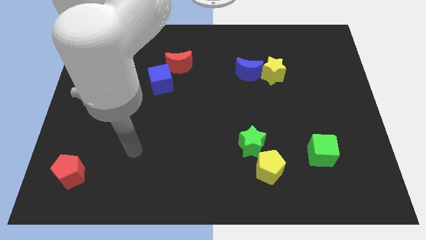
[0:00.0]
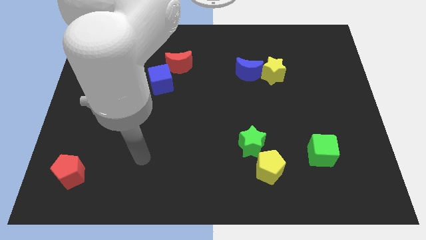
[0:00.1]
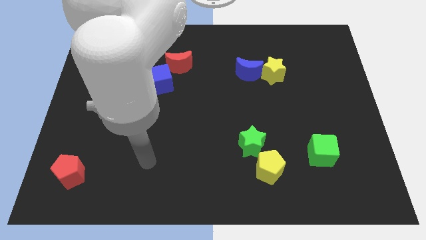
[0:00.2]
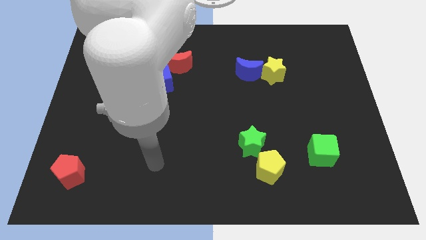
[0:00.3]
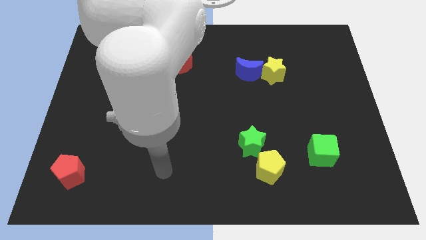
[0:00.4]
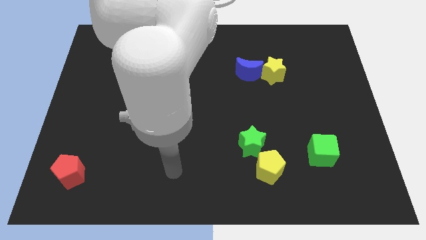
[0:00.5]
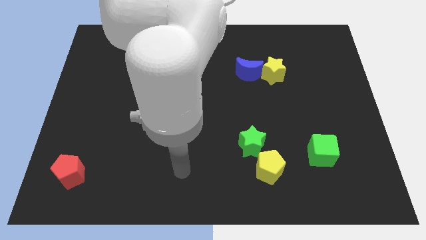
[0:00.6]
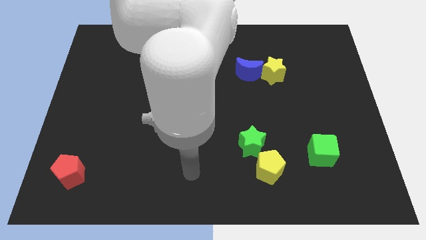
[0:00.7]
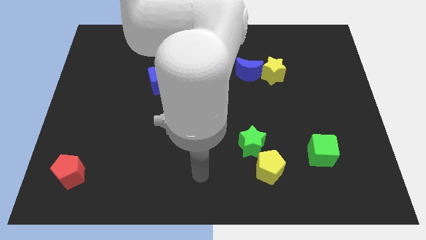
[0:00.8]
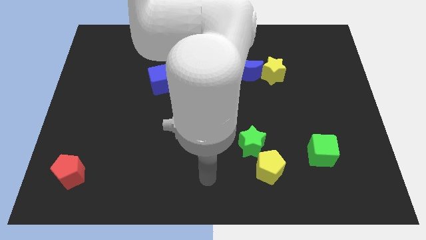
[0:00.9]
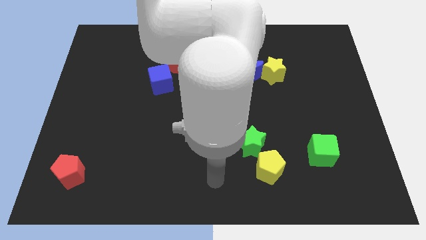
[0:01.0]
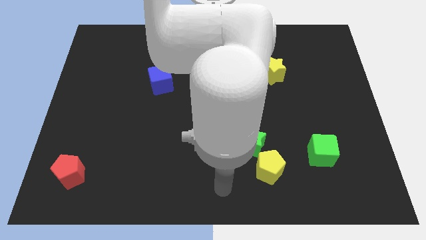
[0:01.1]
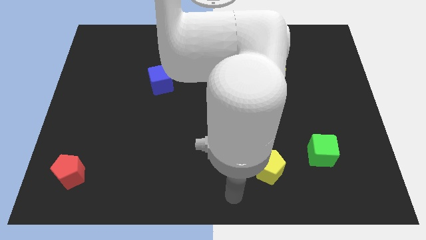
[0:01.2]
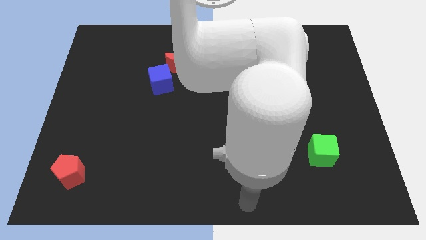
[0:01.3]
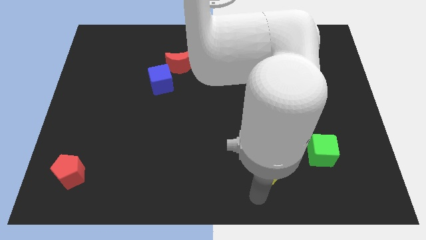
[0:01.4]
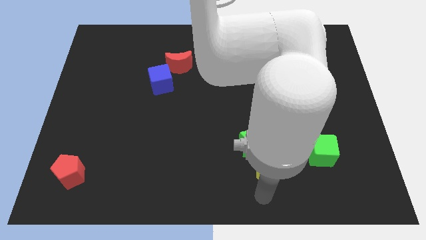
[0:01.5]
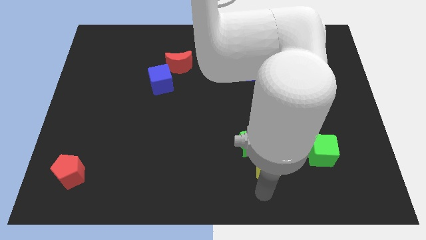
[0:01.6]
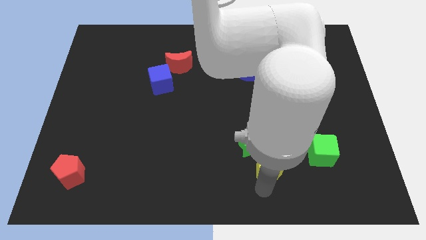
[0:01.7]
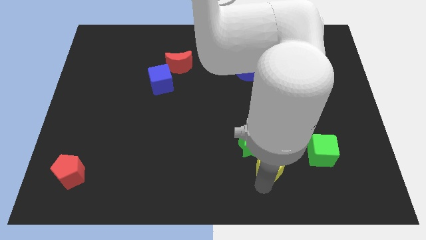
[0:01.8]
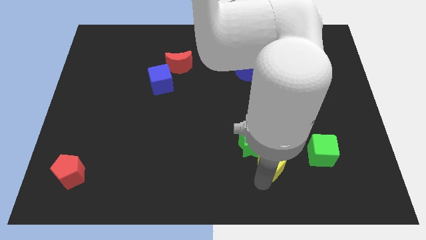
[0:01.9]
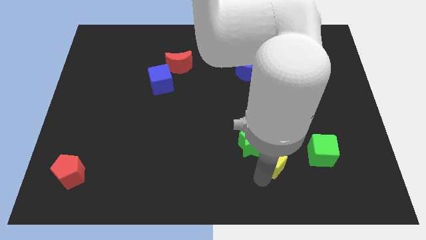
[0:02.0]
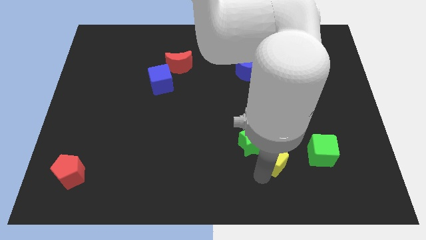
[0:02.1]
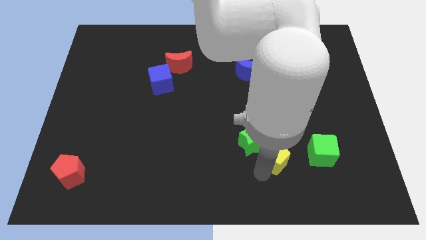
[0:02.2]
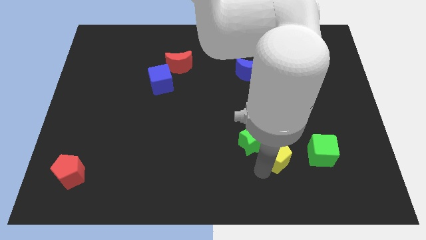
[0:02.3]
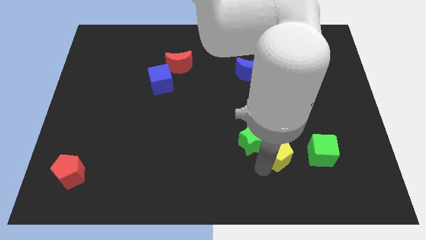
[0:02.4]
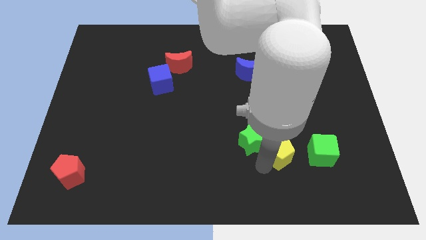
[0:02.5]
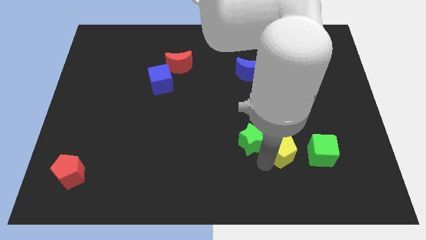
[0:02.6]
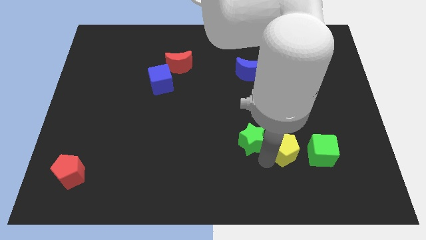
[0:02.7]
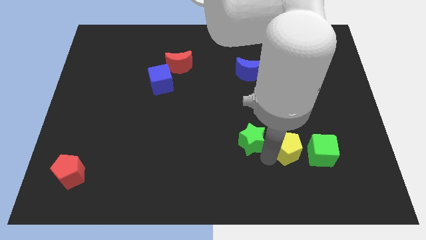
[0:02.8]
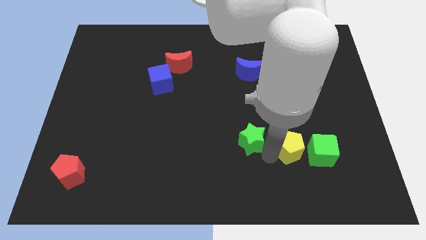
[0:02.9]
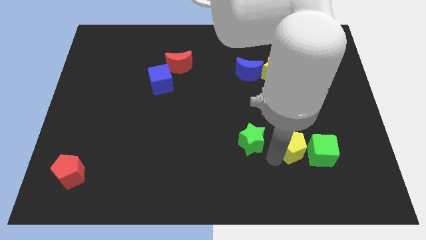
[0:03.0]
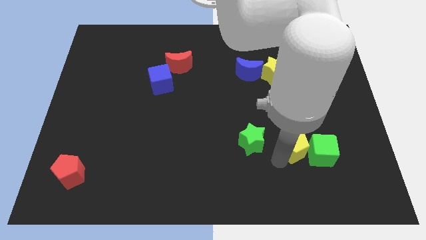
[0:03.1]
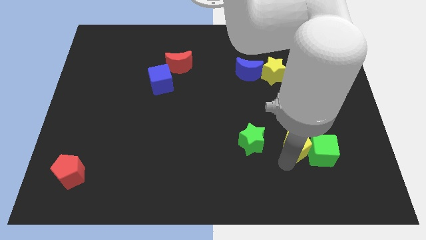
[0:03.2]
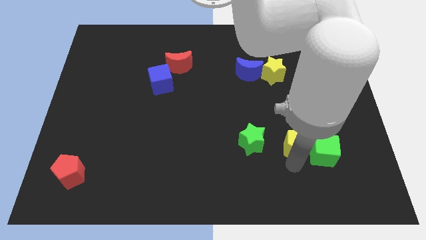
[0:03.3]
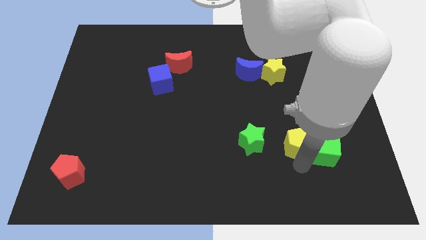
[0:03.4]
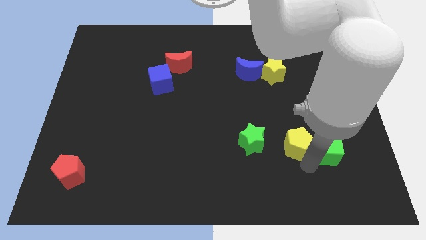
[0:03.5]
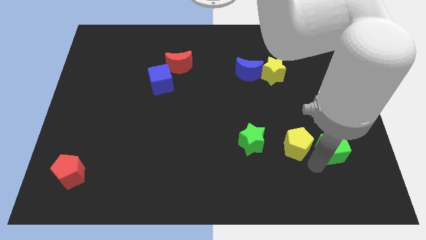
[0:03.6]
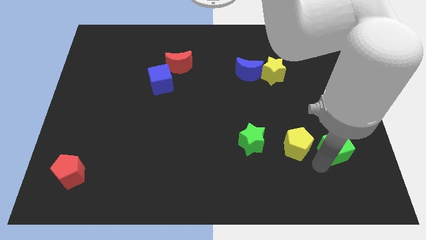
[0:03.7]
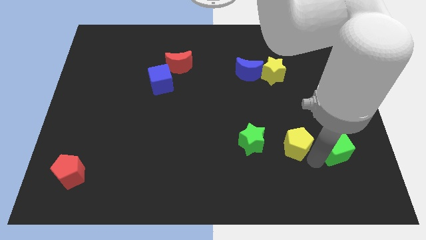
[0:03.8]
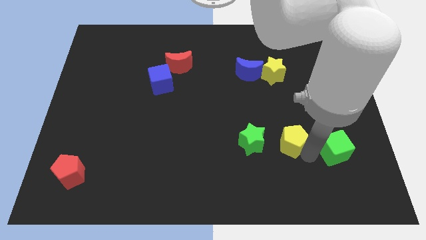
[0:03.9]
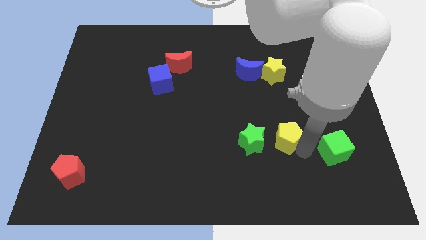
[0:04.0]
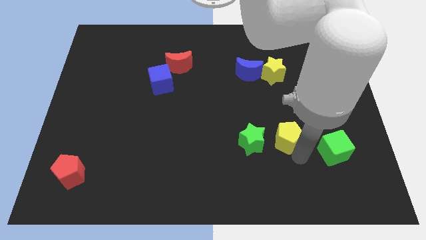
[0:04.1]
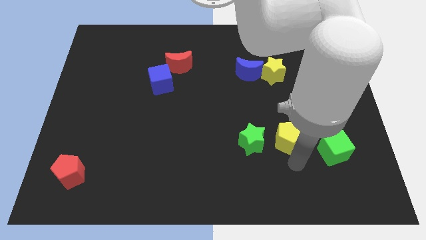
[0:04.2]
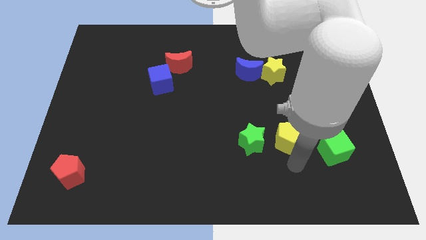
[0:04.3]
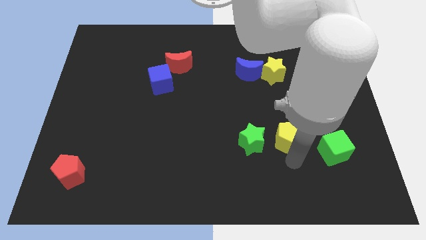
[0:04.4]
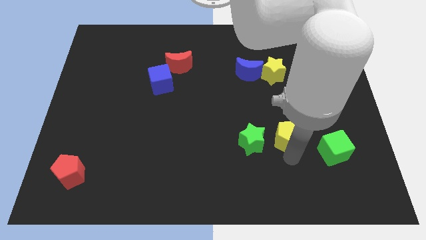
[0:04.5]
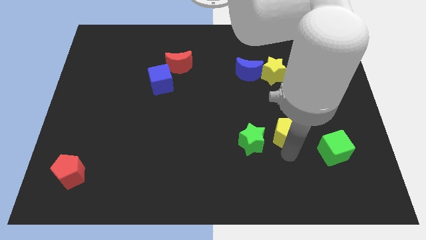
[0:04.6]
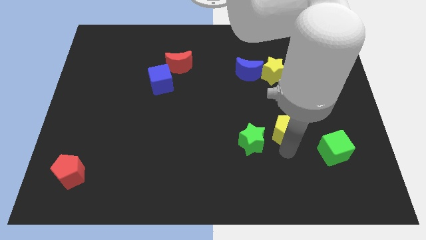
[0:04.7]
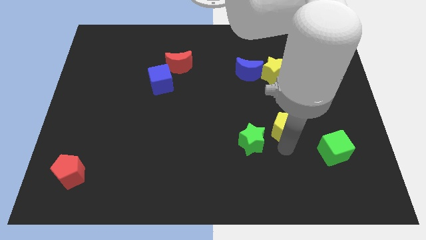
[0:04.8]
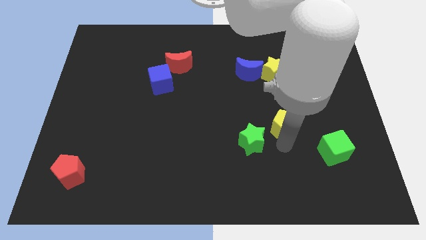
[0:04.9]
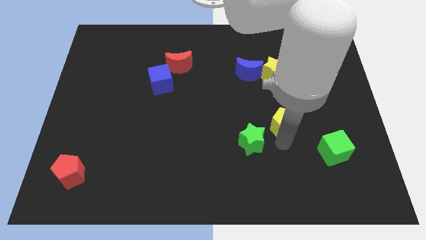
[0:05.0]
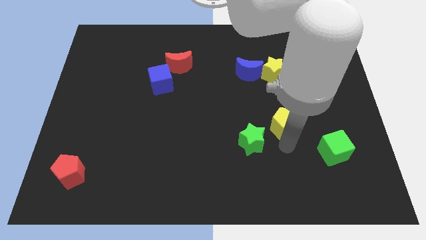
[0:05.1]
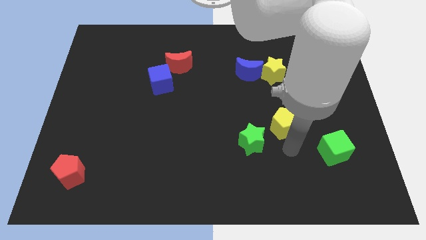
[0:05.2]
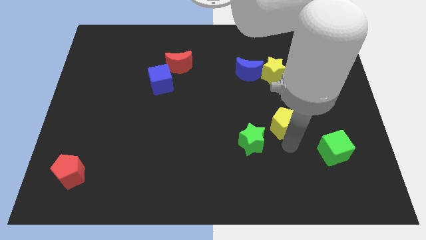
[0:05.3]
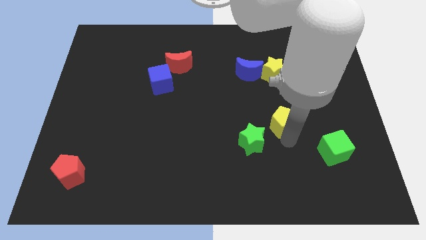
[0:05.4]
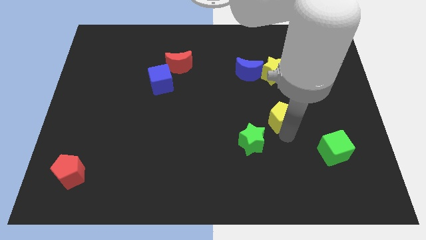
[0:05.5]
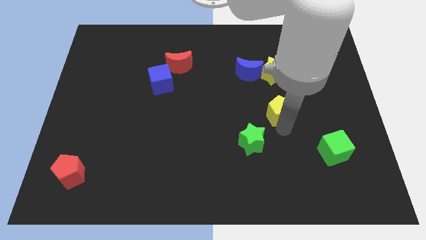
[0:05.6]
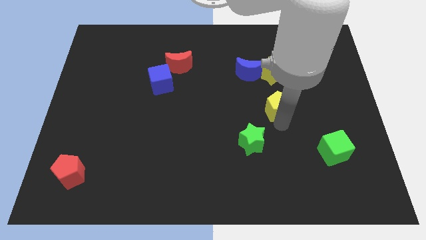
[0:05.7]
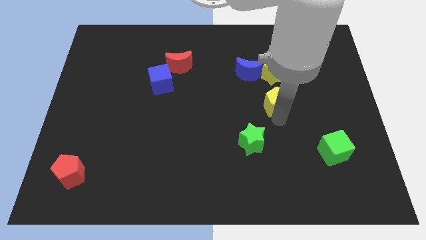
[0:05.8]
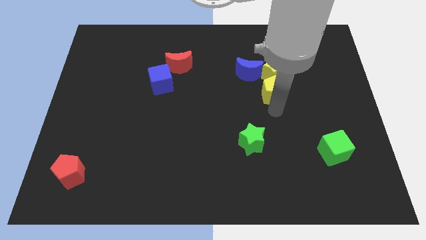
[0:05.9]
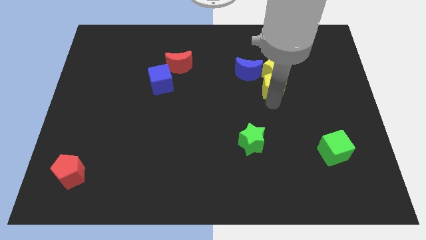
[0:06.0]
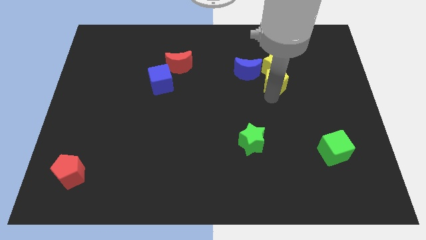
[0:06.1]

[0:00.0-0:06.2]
slide the yellow pentagon to the right of the blue moon
